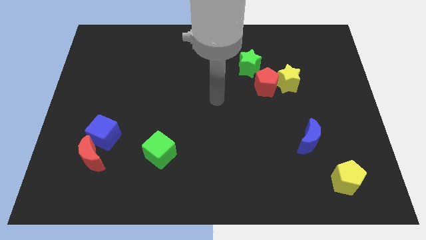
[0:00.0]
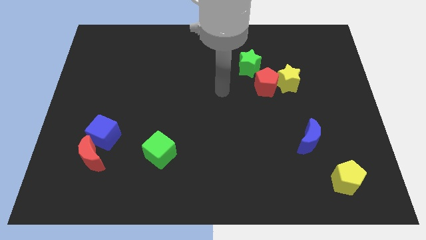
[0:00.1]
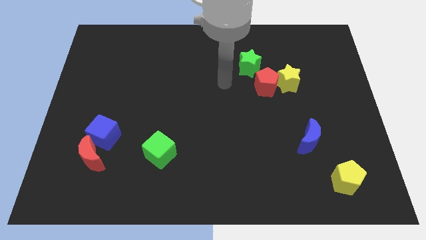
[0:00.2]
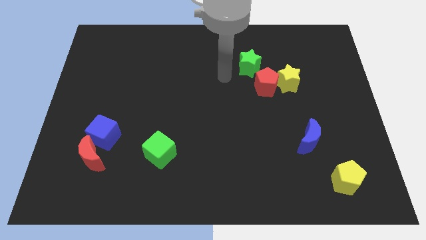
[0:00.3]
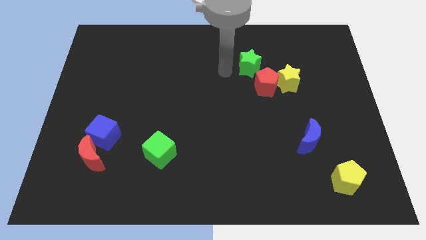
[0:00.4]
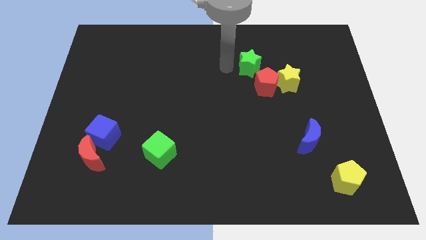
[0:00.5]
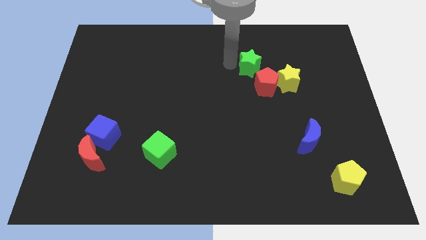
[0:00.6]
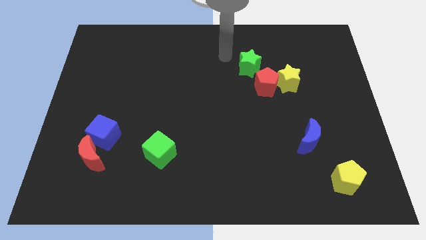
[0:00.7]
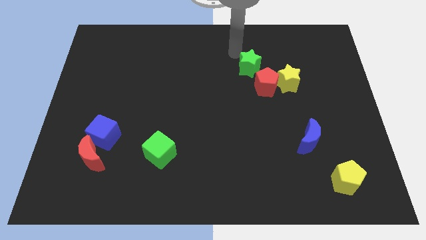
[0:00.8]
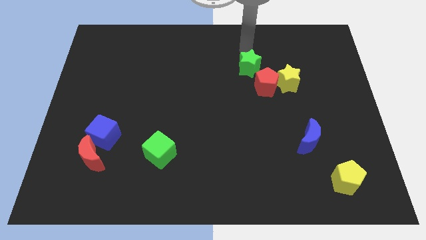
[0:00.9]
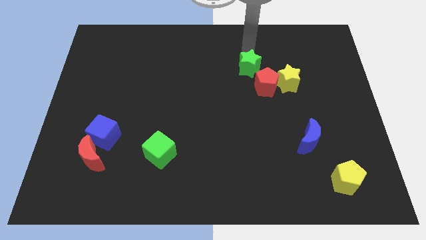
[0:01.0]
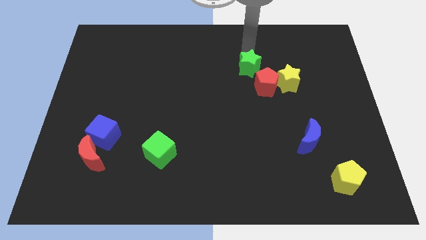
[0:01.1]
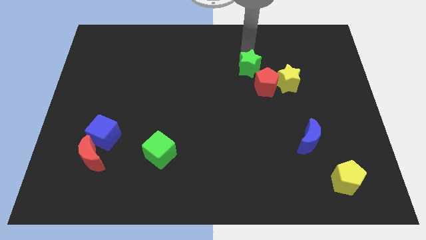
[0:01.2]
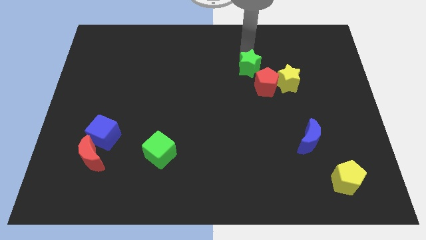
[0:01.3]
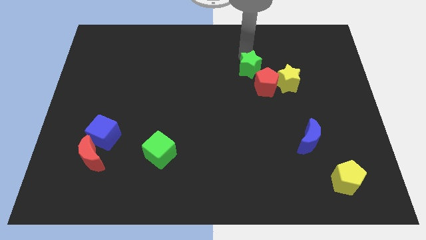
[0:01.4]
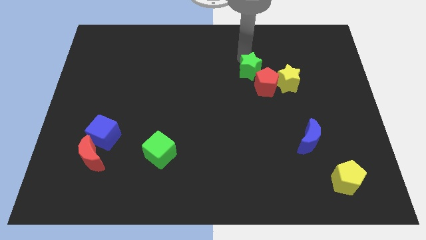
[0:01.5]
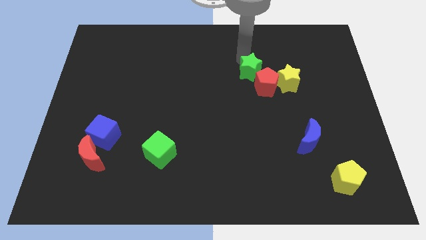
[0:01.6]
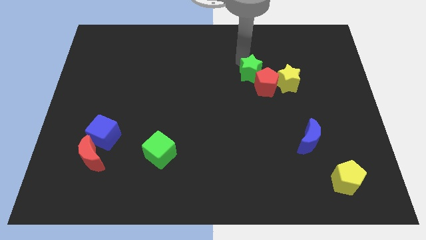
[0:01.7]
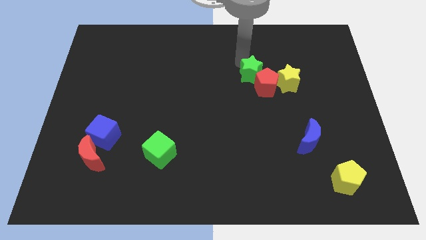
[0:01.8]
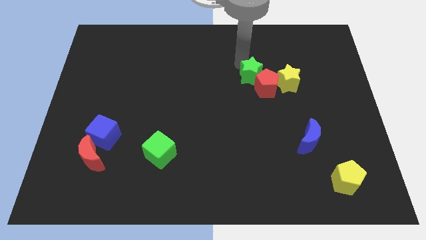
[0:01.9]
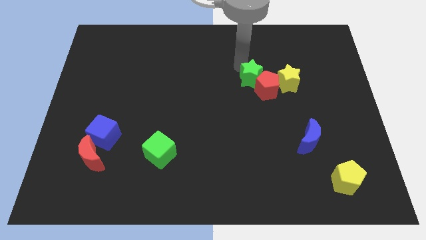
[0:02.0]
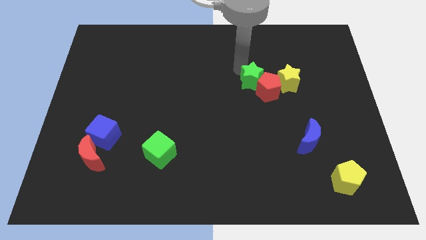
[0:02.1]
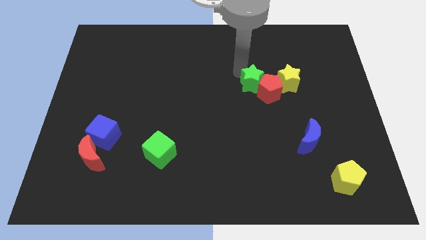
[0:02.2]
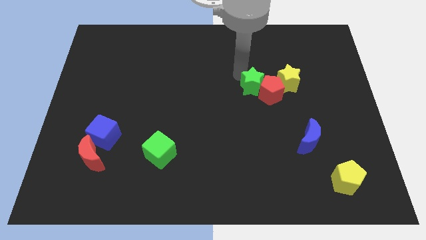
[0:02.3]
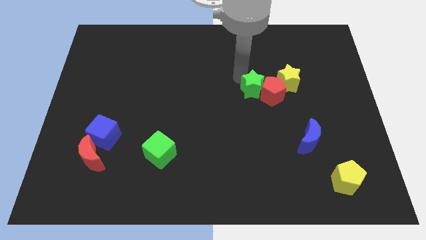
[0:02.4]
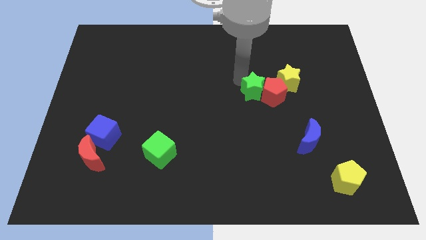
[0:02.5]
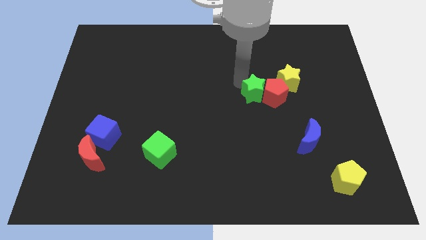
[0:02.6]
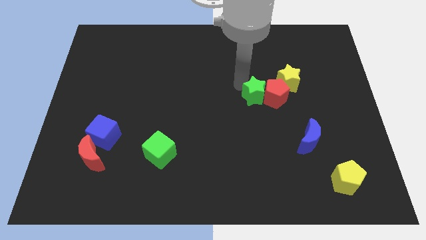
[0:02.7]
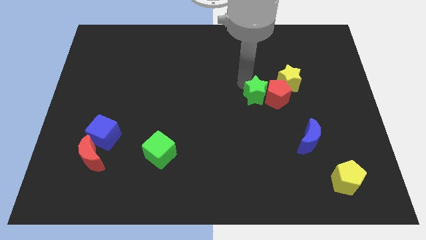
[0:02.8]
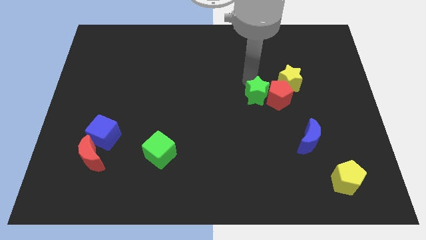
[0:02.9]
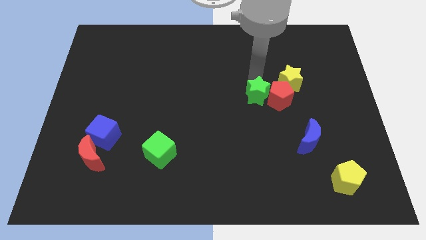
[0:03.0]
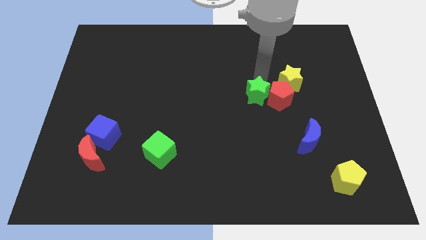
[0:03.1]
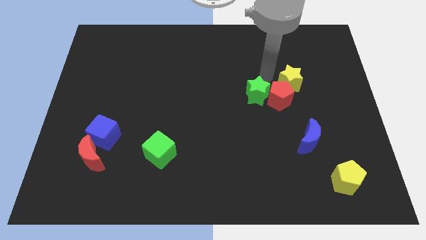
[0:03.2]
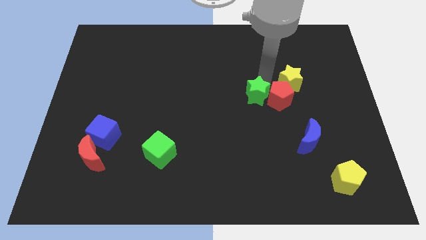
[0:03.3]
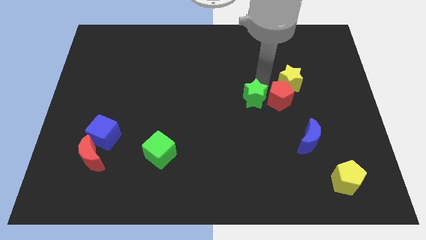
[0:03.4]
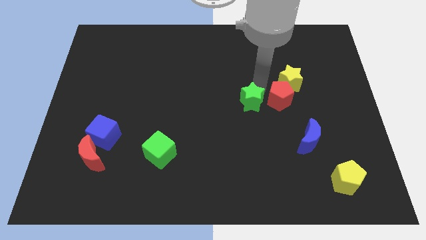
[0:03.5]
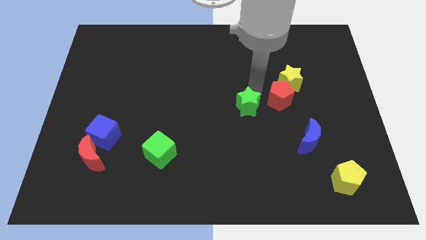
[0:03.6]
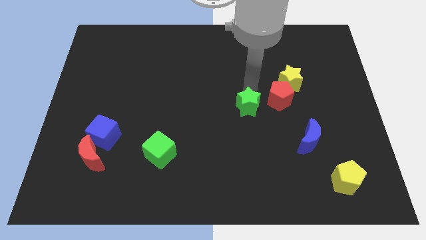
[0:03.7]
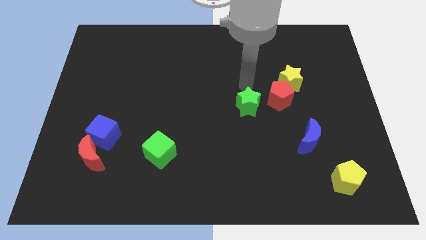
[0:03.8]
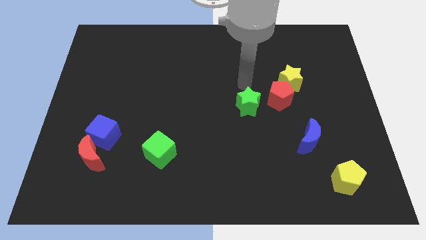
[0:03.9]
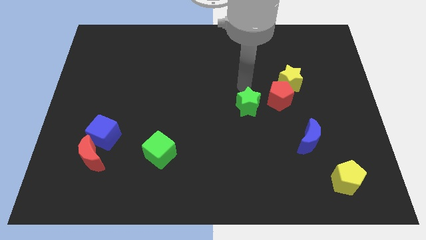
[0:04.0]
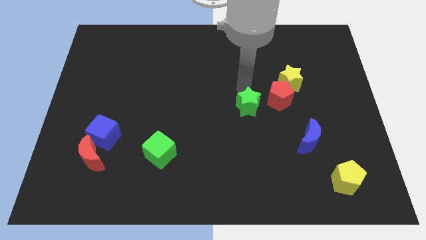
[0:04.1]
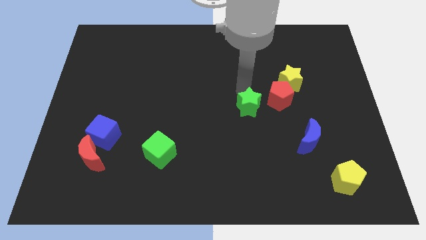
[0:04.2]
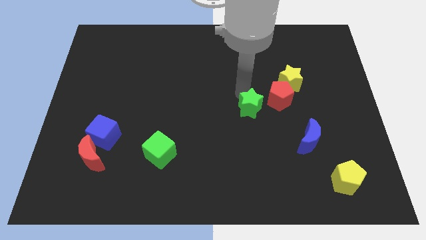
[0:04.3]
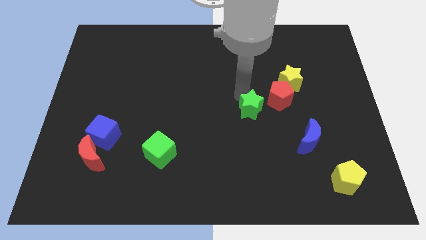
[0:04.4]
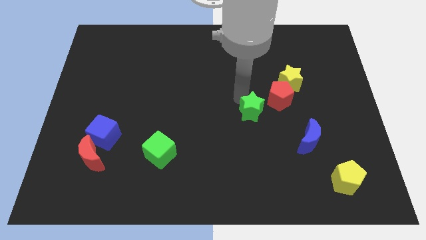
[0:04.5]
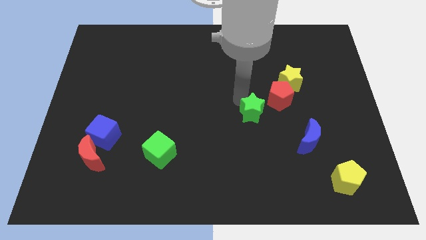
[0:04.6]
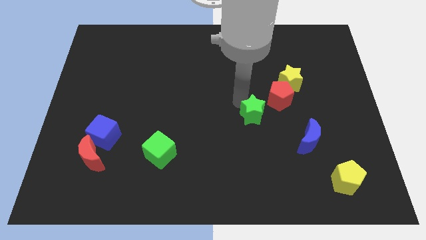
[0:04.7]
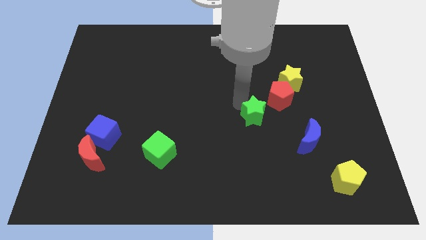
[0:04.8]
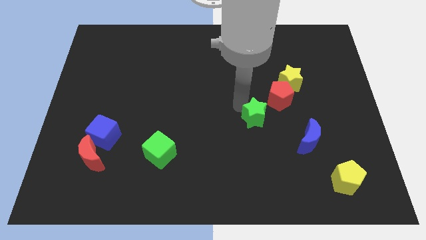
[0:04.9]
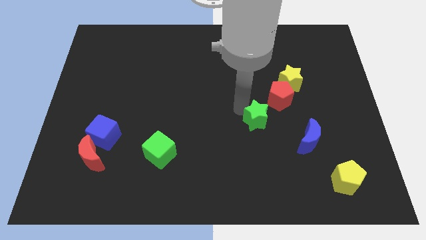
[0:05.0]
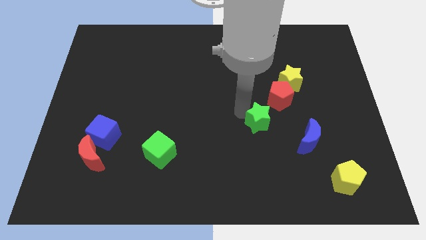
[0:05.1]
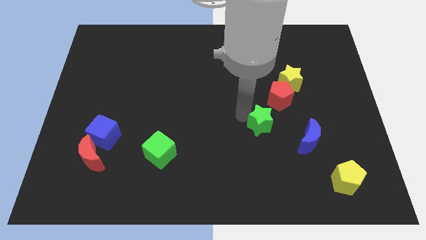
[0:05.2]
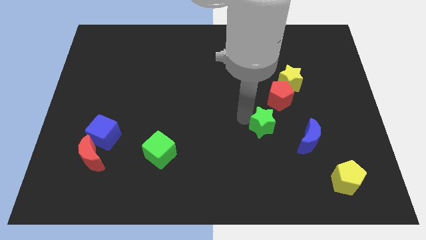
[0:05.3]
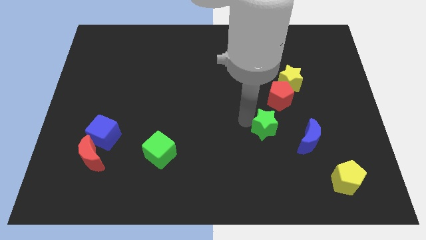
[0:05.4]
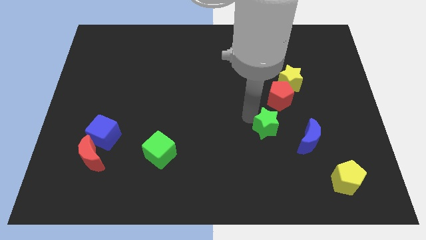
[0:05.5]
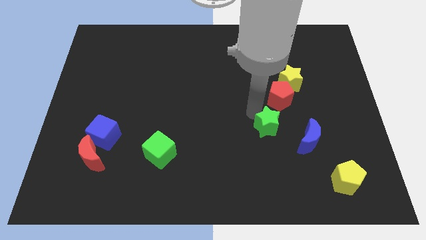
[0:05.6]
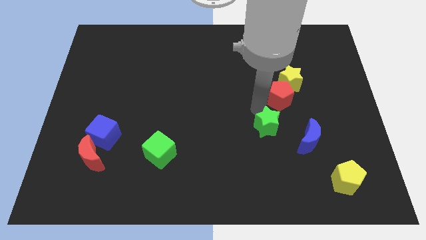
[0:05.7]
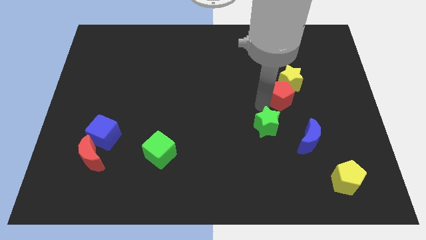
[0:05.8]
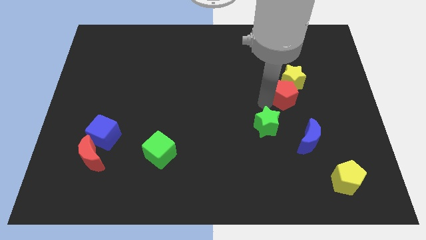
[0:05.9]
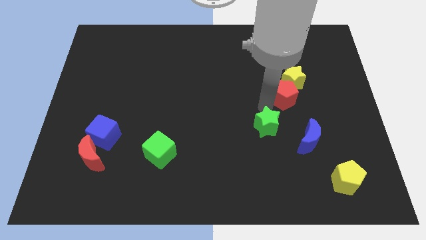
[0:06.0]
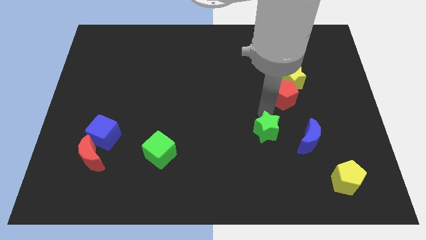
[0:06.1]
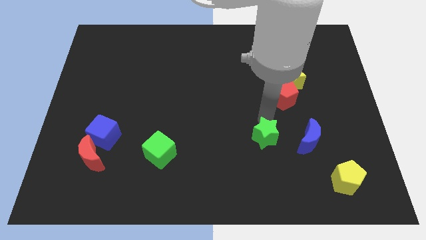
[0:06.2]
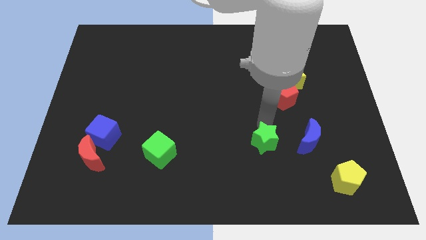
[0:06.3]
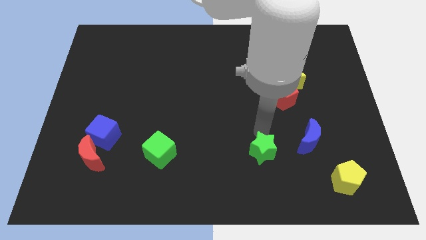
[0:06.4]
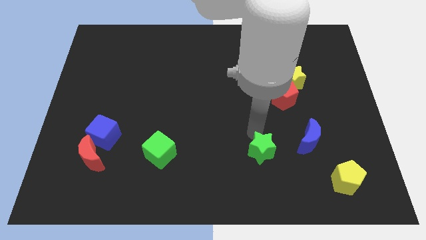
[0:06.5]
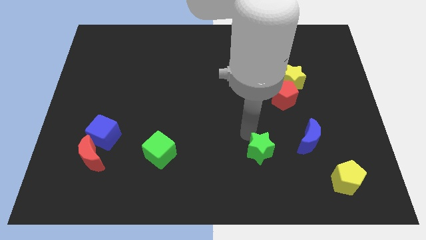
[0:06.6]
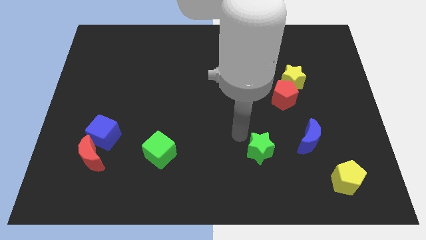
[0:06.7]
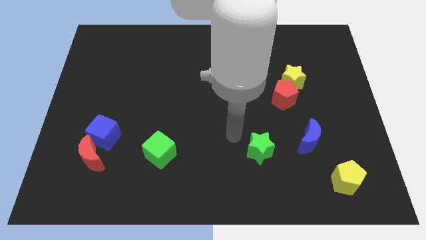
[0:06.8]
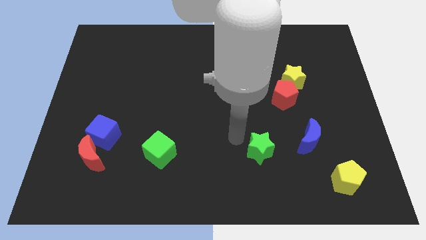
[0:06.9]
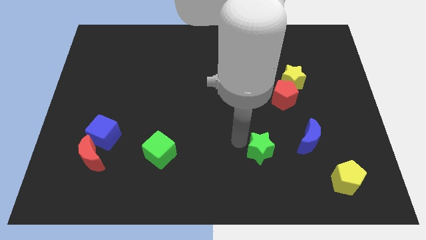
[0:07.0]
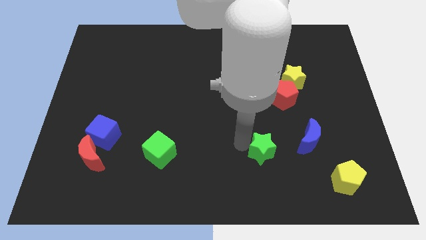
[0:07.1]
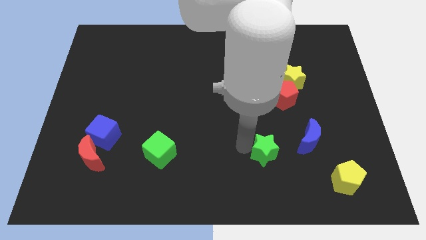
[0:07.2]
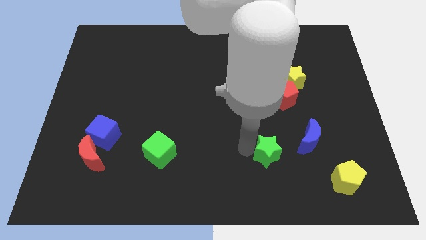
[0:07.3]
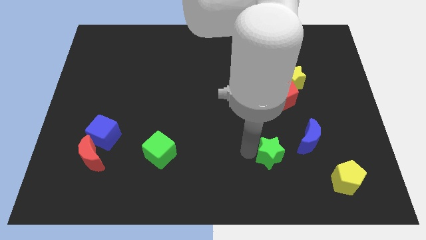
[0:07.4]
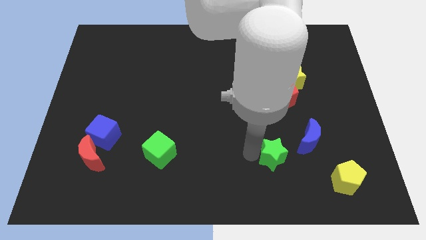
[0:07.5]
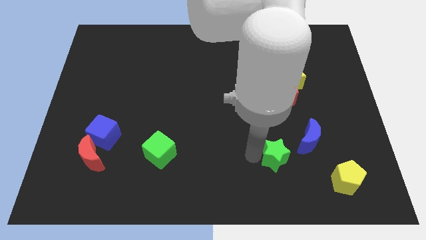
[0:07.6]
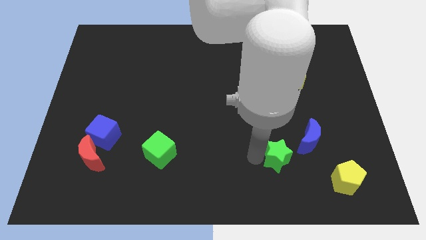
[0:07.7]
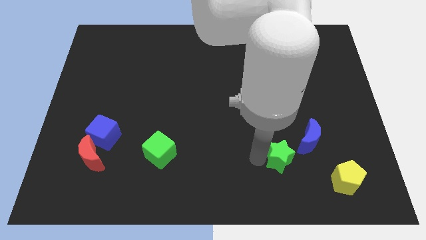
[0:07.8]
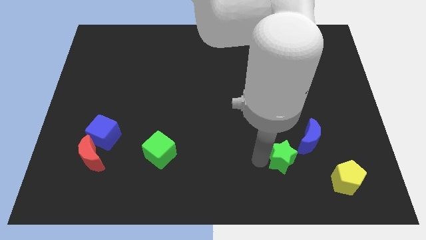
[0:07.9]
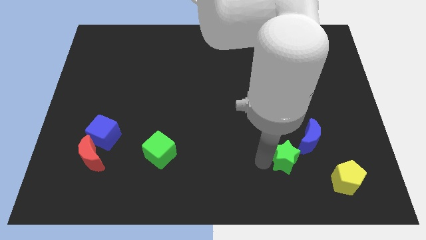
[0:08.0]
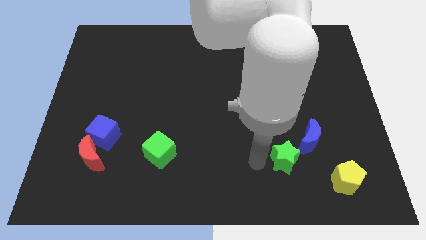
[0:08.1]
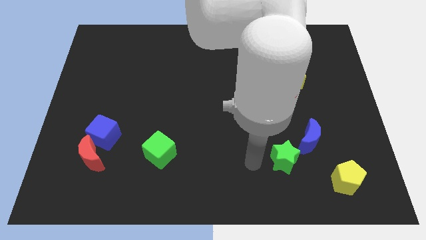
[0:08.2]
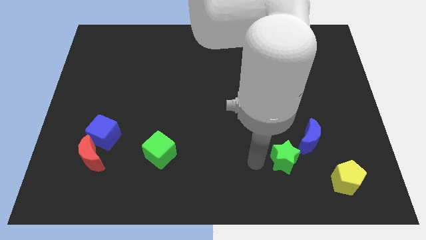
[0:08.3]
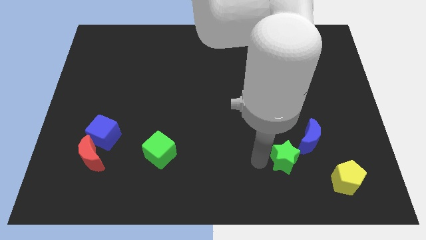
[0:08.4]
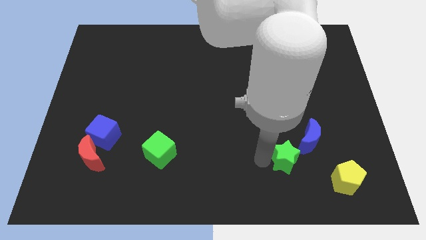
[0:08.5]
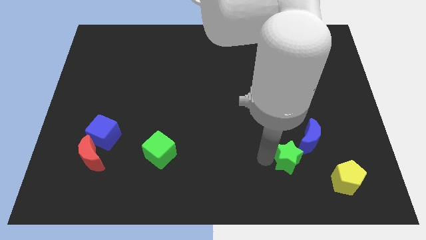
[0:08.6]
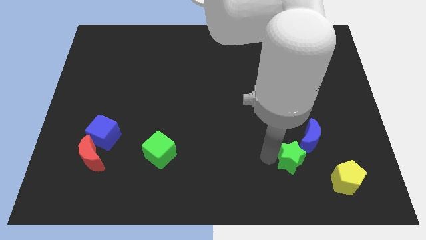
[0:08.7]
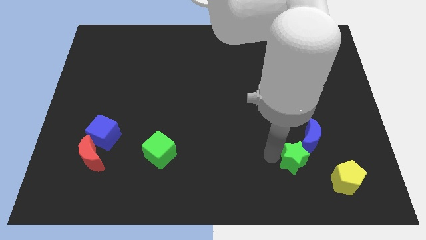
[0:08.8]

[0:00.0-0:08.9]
slide the green star diagonally up and to the left of the yellow pentagon
